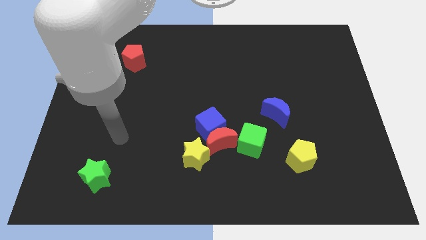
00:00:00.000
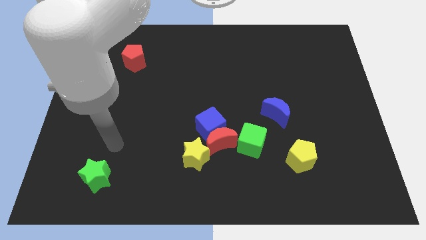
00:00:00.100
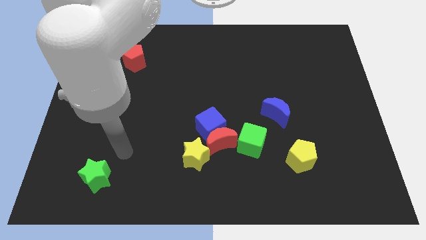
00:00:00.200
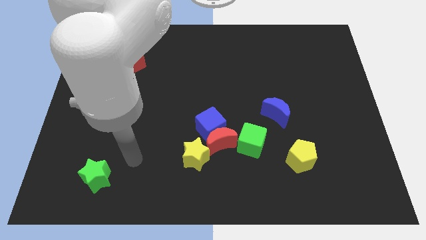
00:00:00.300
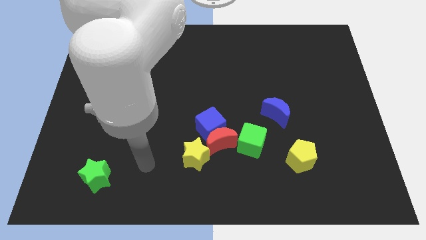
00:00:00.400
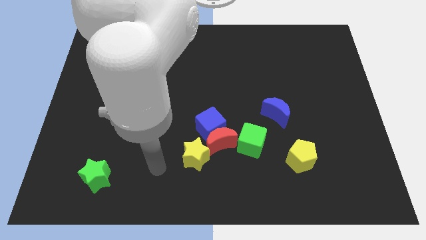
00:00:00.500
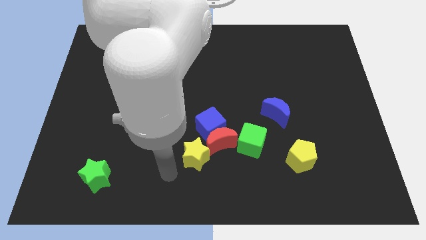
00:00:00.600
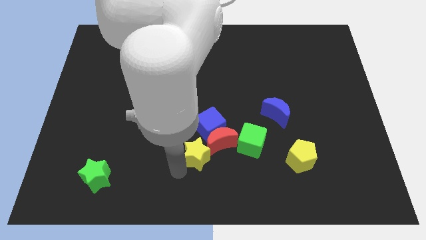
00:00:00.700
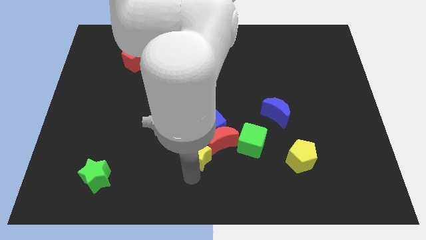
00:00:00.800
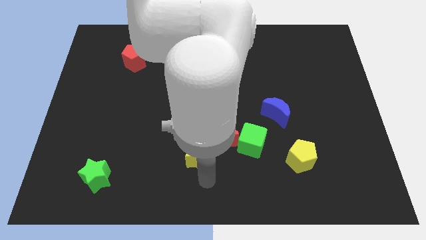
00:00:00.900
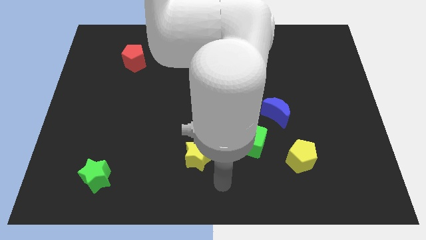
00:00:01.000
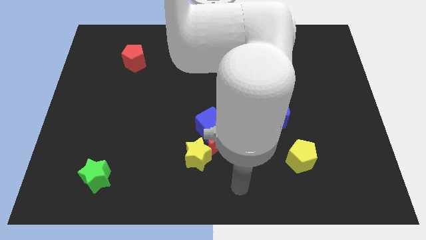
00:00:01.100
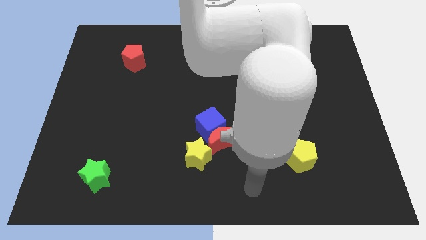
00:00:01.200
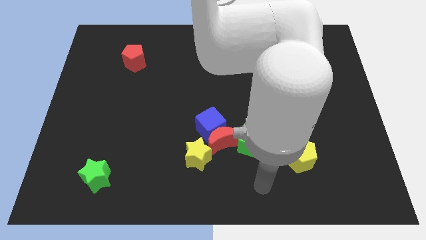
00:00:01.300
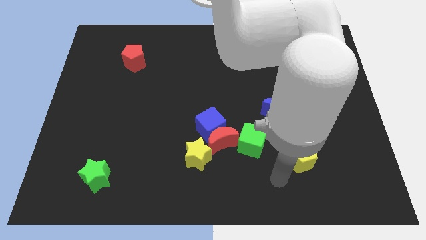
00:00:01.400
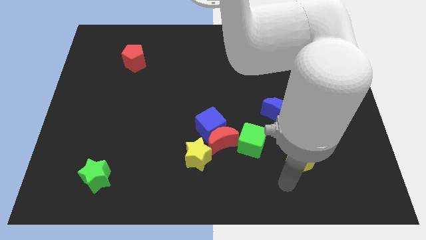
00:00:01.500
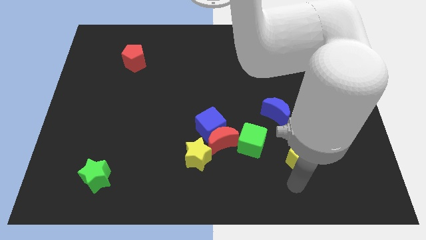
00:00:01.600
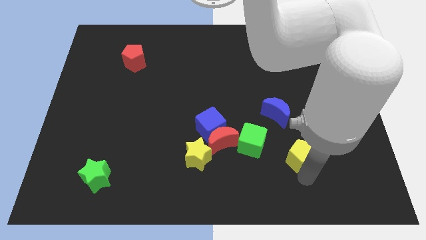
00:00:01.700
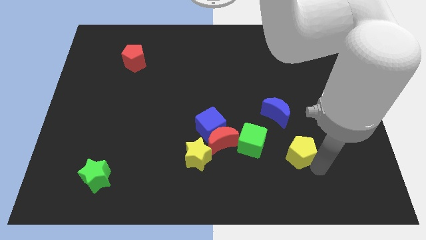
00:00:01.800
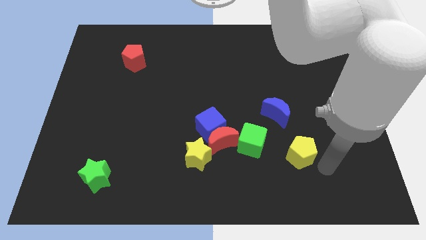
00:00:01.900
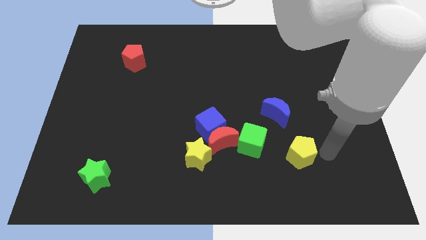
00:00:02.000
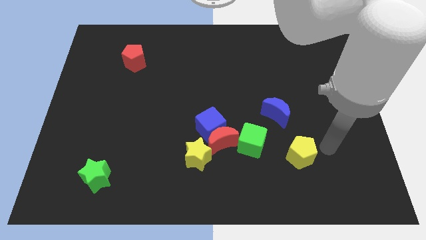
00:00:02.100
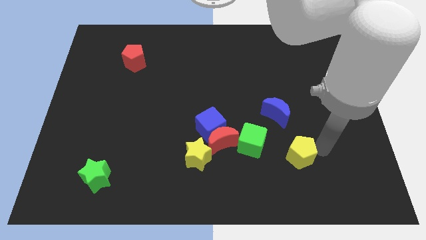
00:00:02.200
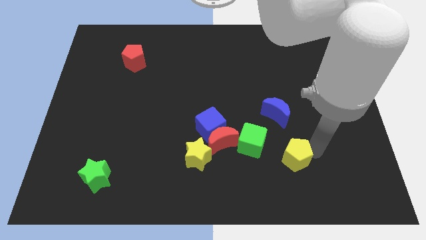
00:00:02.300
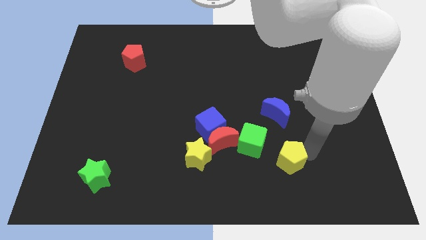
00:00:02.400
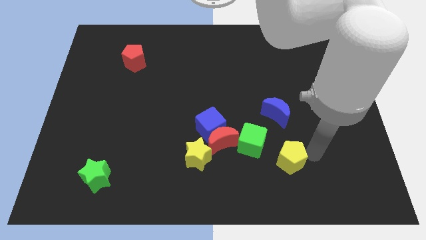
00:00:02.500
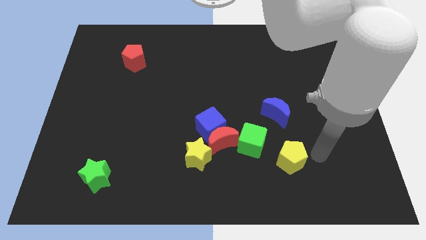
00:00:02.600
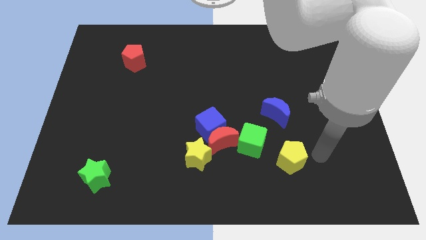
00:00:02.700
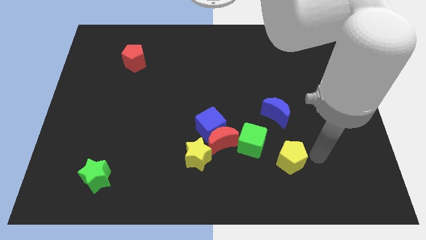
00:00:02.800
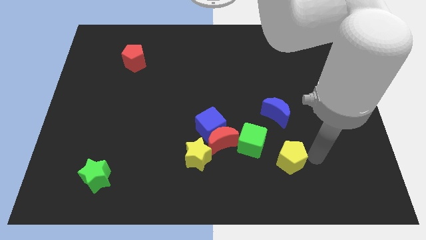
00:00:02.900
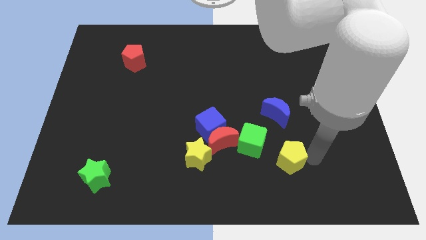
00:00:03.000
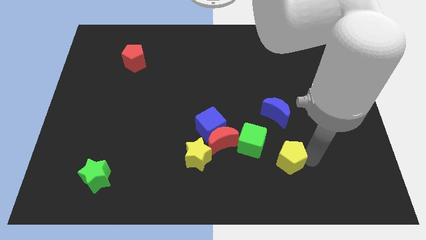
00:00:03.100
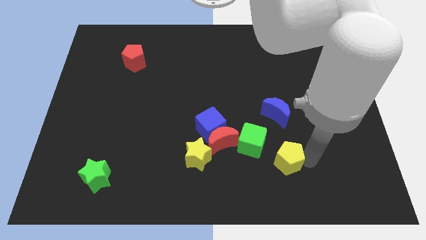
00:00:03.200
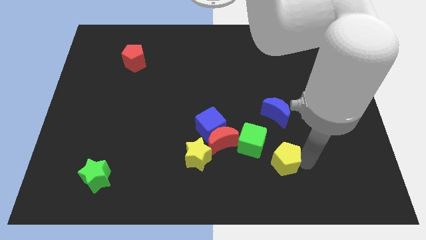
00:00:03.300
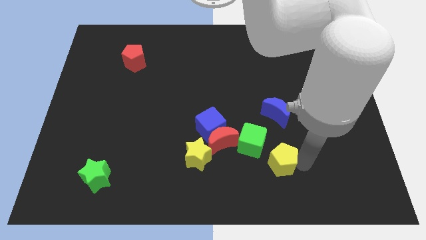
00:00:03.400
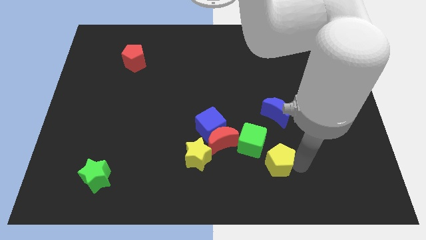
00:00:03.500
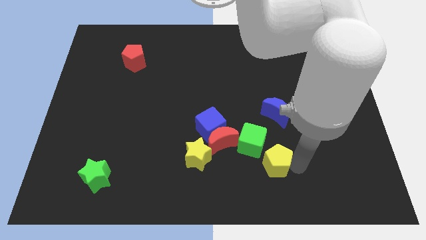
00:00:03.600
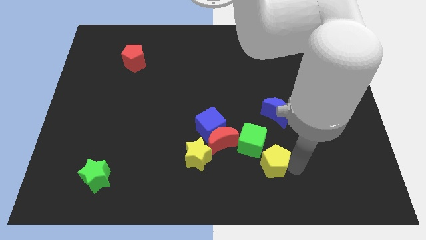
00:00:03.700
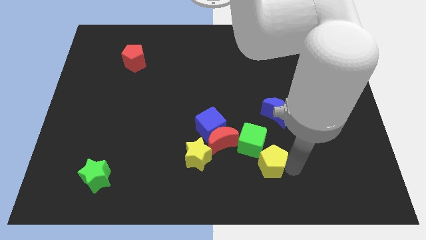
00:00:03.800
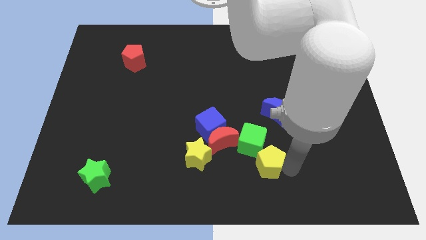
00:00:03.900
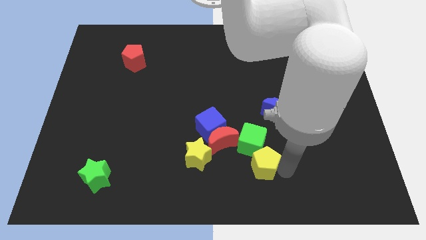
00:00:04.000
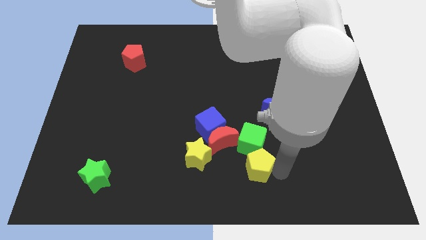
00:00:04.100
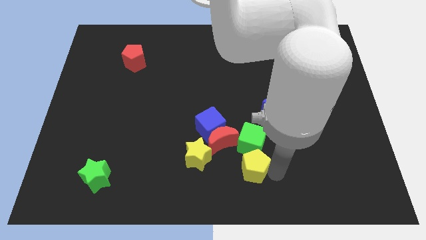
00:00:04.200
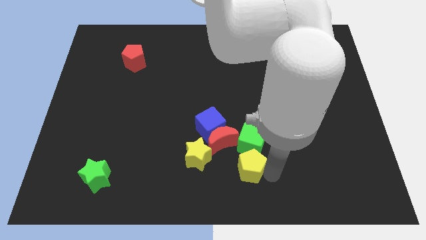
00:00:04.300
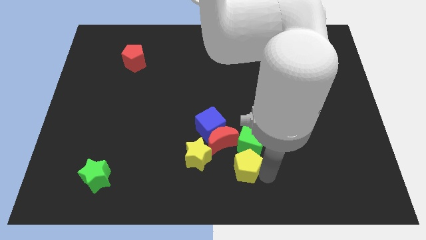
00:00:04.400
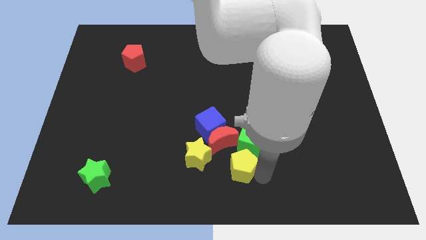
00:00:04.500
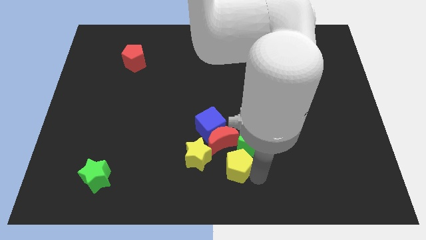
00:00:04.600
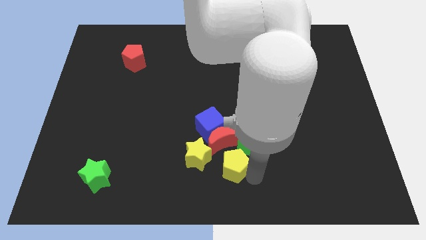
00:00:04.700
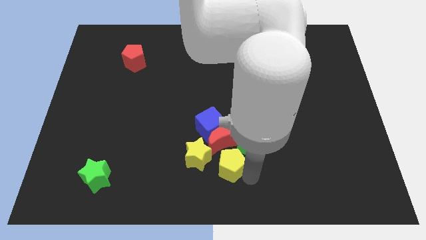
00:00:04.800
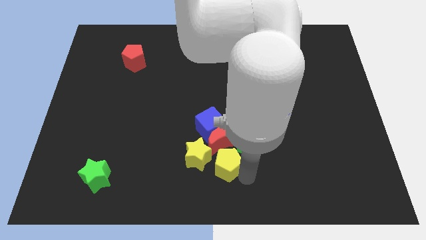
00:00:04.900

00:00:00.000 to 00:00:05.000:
move the yellow pentagon towards the red moon

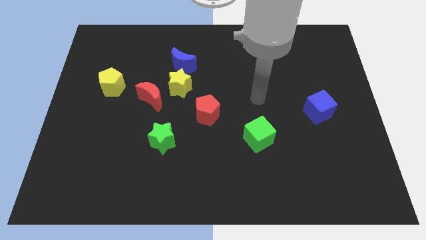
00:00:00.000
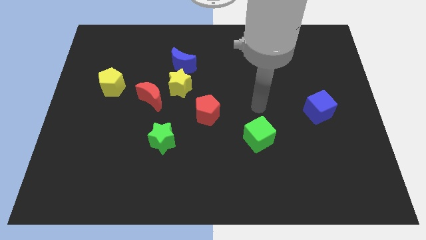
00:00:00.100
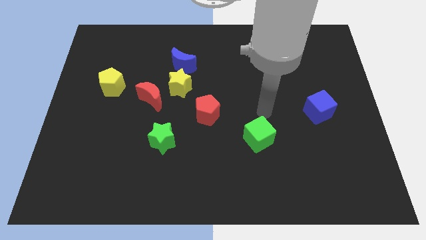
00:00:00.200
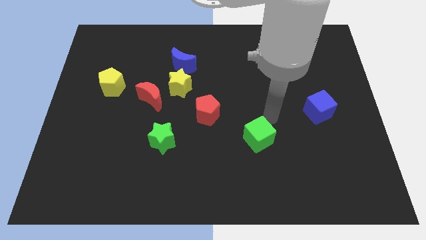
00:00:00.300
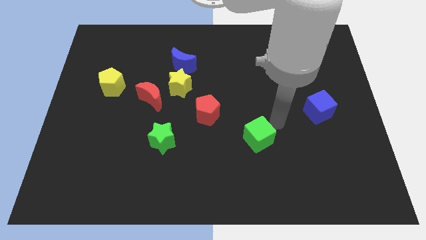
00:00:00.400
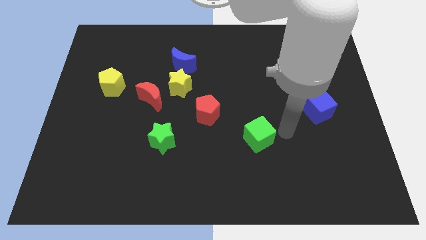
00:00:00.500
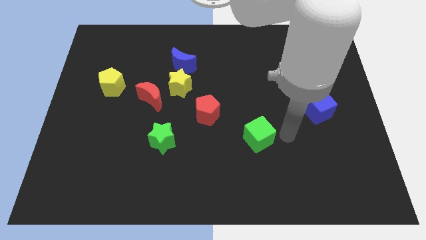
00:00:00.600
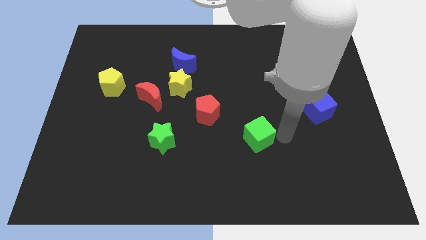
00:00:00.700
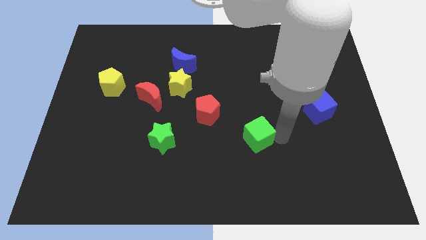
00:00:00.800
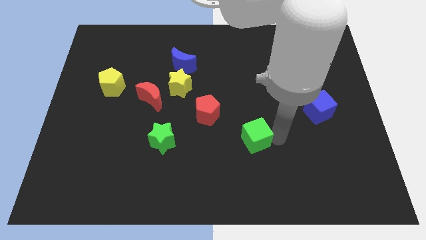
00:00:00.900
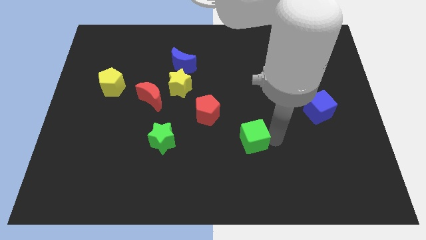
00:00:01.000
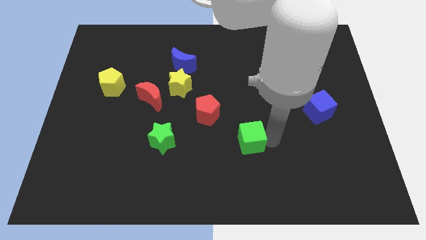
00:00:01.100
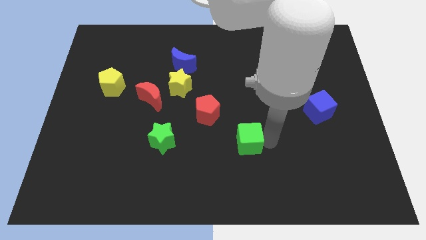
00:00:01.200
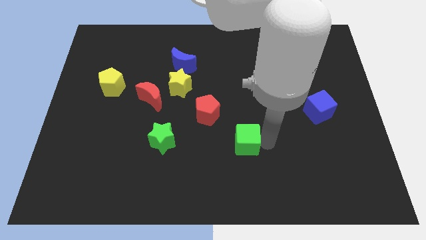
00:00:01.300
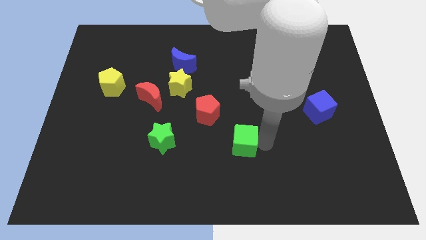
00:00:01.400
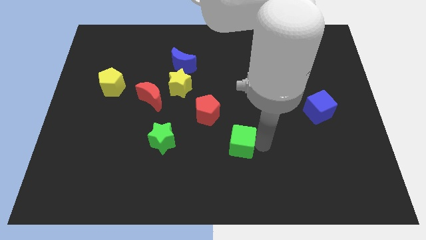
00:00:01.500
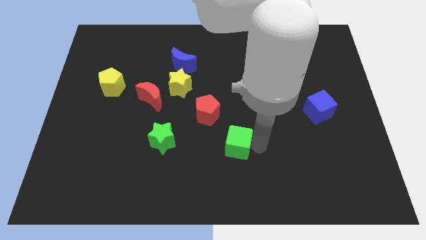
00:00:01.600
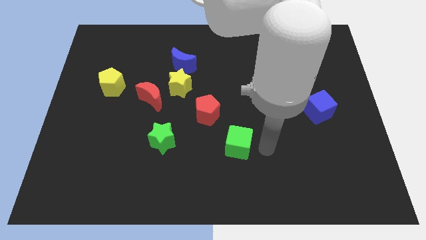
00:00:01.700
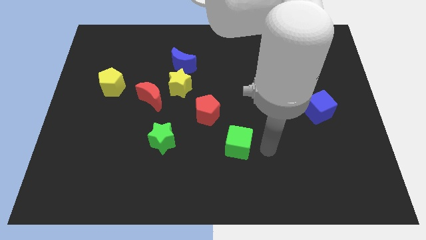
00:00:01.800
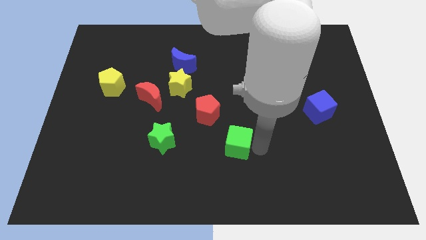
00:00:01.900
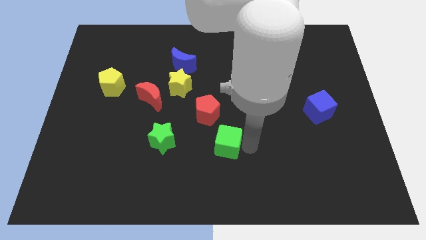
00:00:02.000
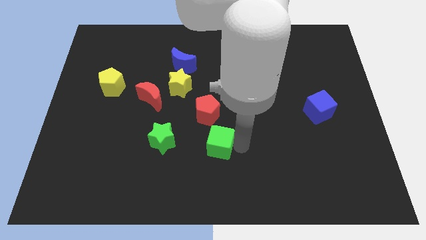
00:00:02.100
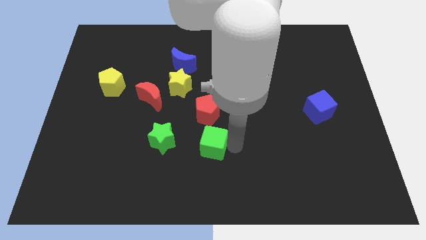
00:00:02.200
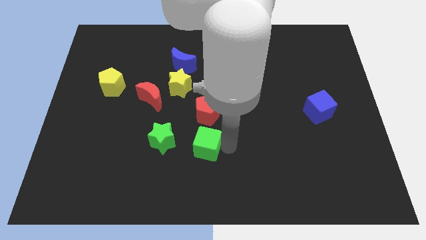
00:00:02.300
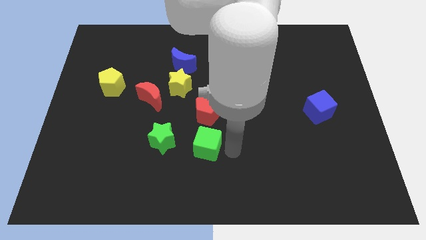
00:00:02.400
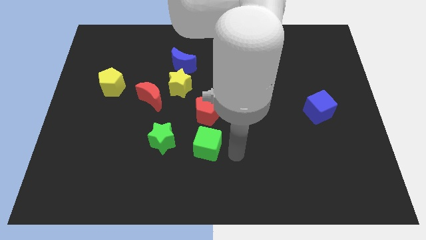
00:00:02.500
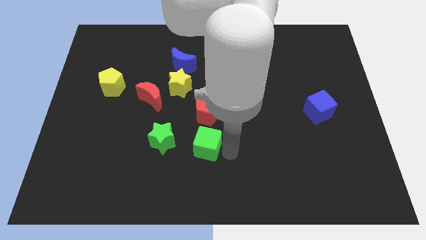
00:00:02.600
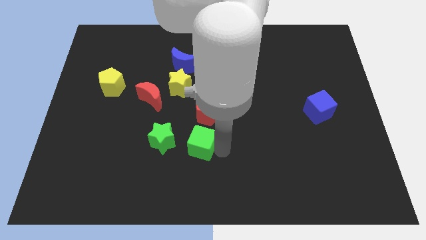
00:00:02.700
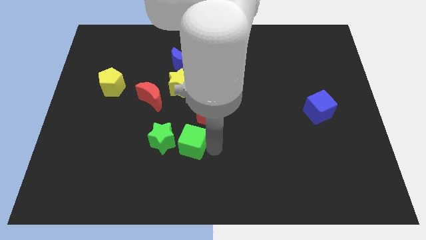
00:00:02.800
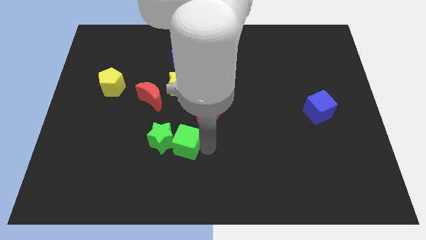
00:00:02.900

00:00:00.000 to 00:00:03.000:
push the green cube next to the green star

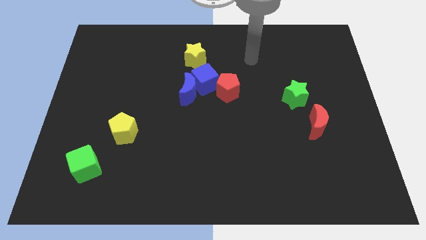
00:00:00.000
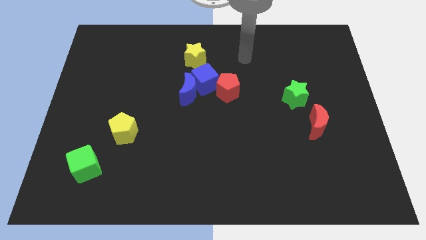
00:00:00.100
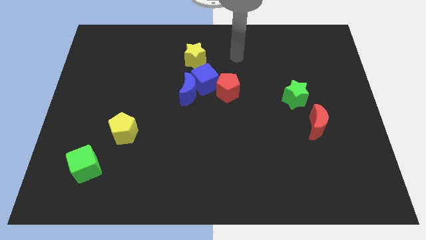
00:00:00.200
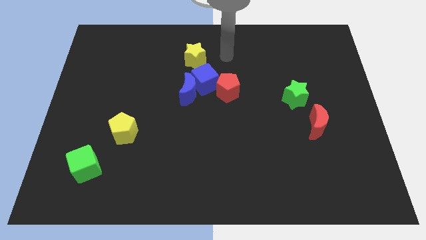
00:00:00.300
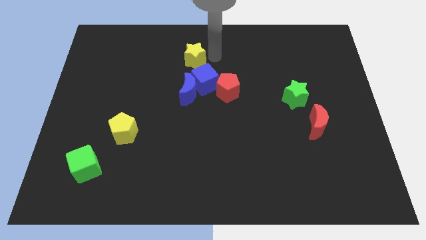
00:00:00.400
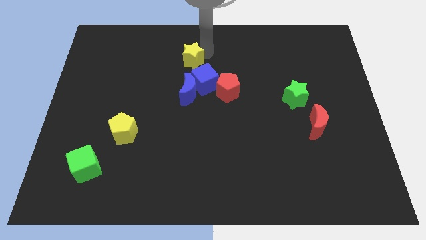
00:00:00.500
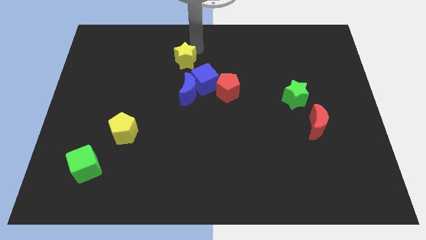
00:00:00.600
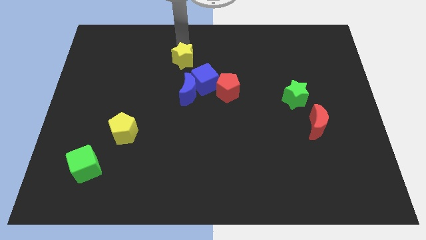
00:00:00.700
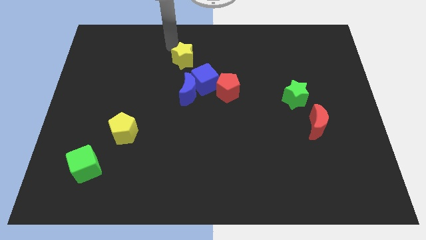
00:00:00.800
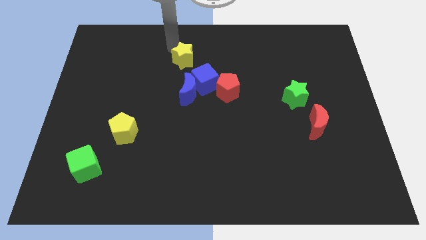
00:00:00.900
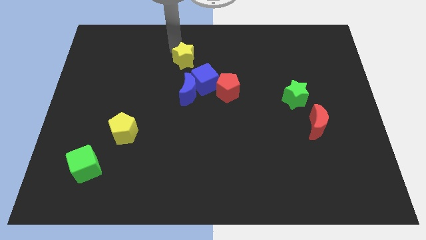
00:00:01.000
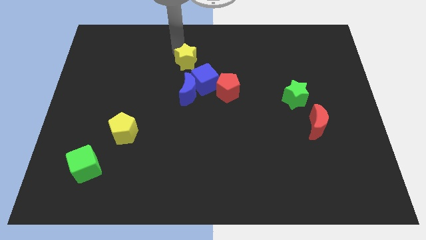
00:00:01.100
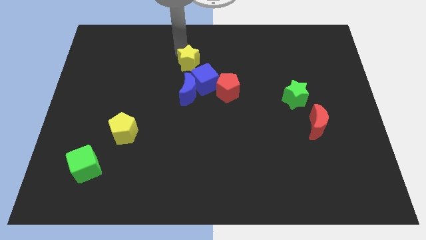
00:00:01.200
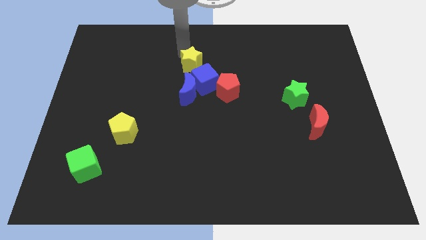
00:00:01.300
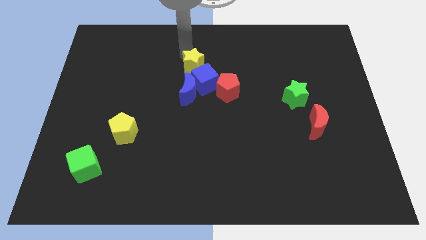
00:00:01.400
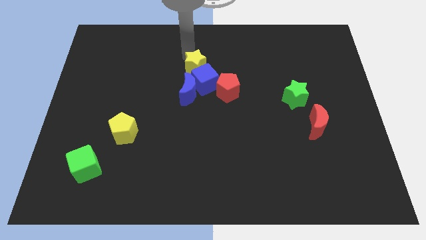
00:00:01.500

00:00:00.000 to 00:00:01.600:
slide the yellow star next to the blue cube
